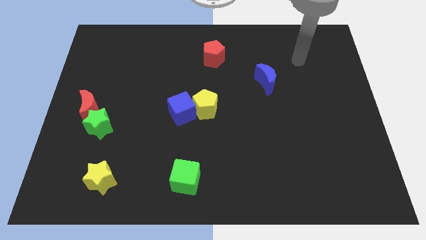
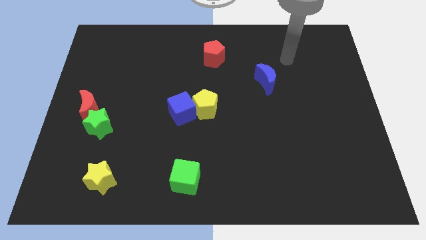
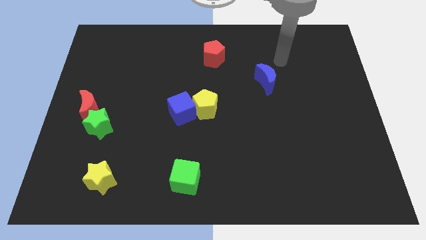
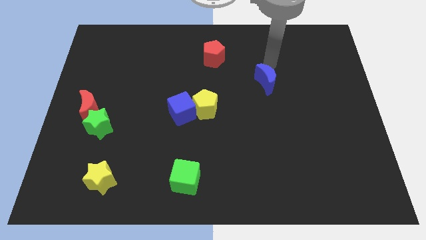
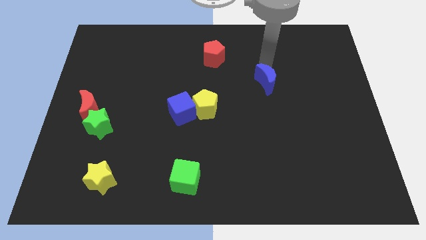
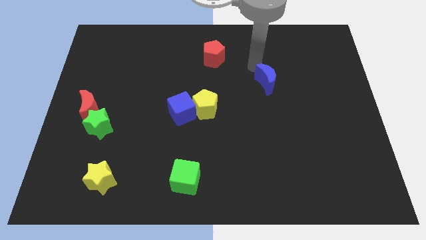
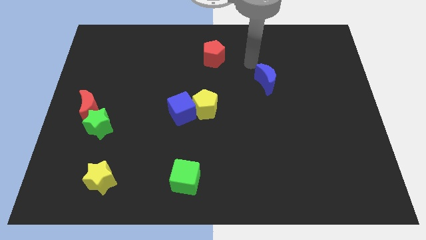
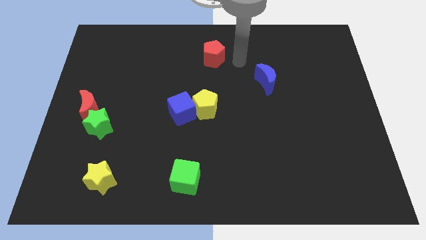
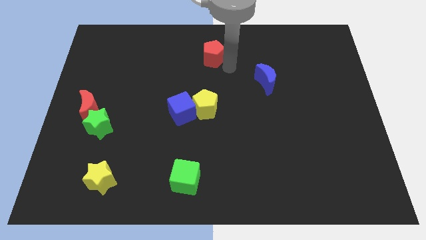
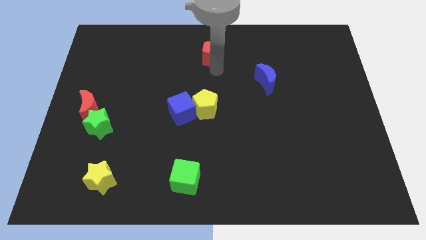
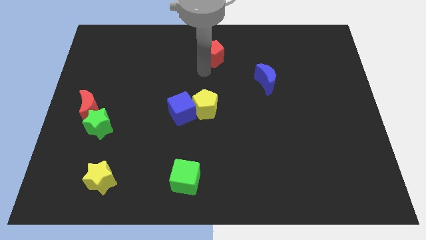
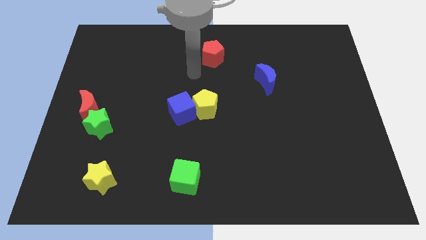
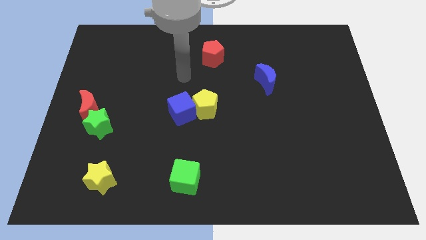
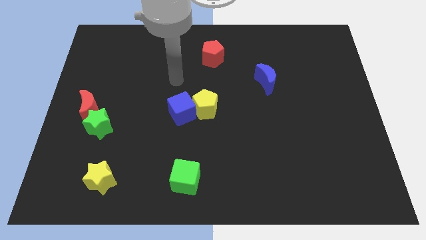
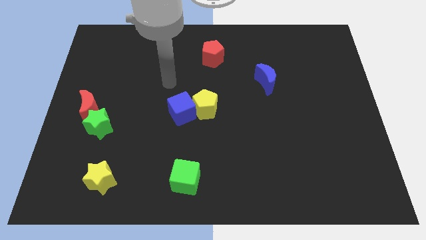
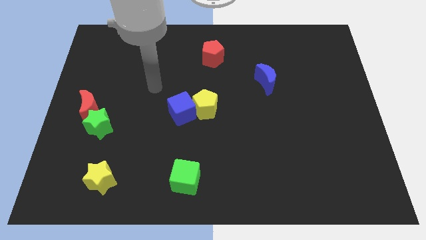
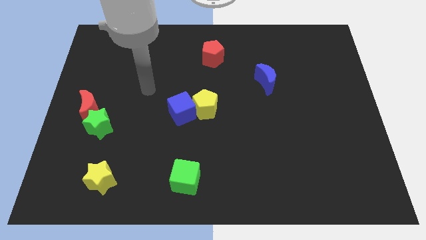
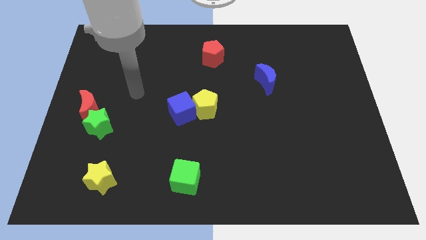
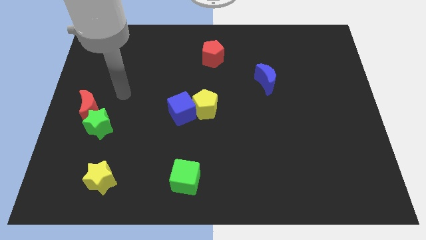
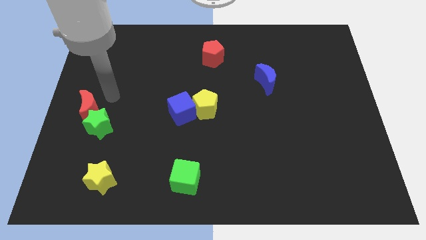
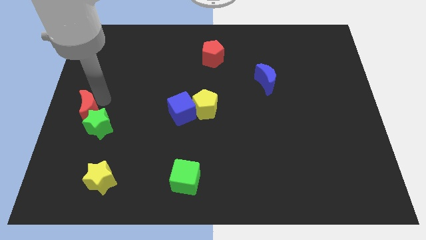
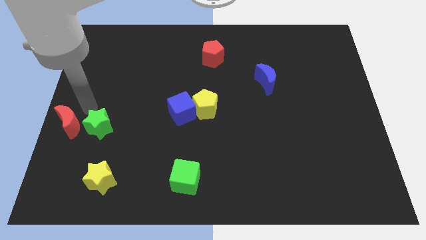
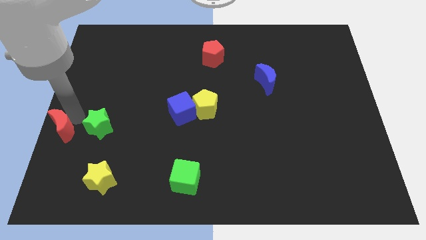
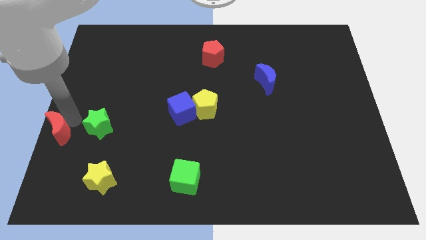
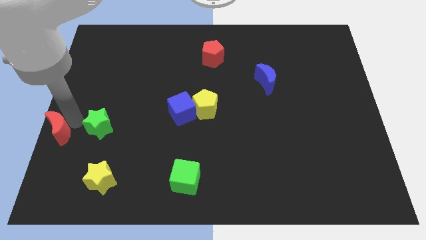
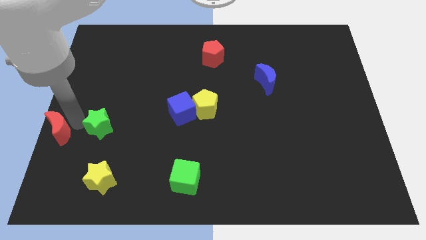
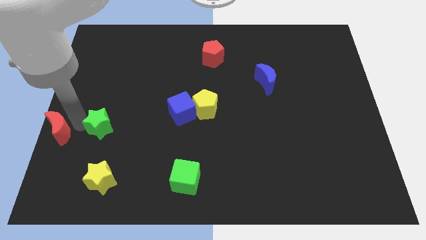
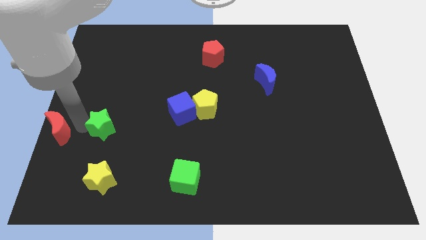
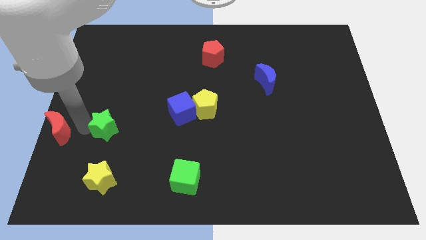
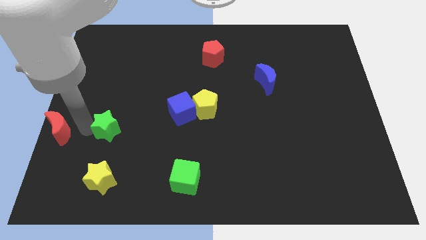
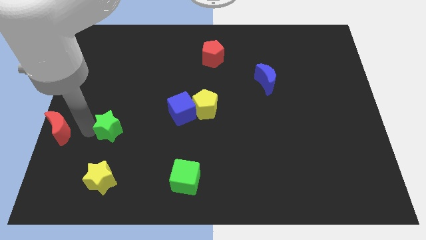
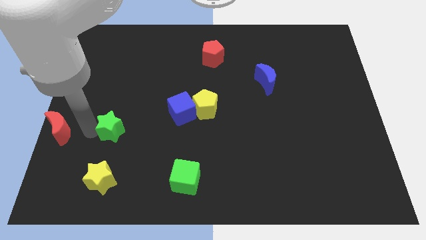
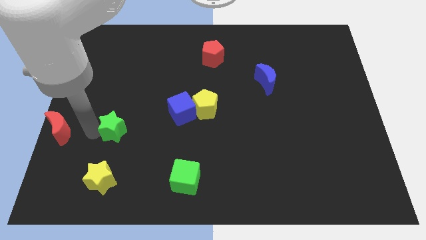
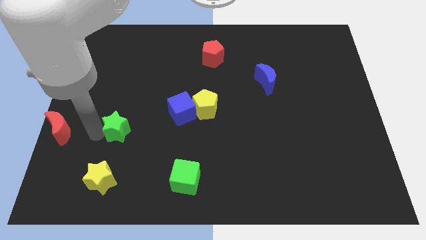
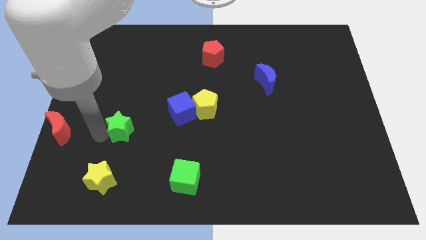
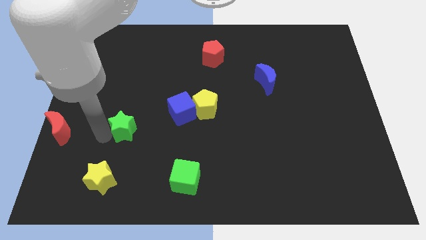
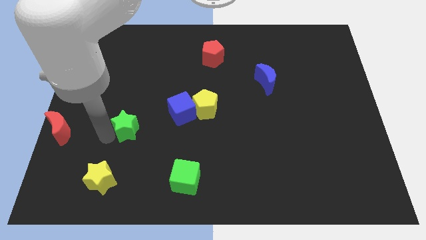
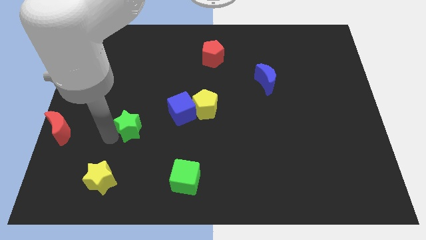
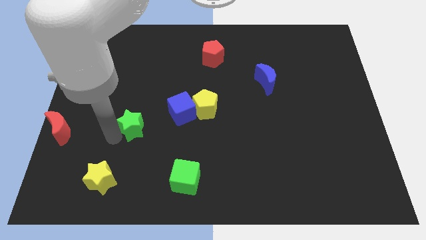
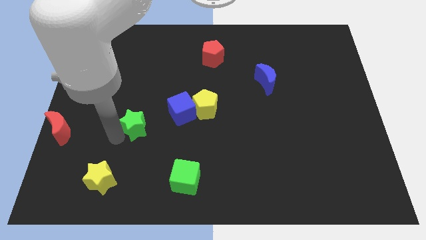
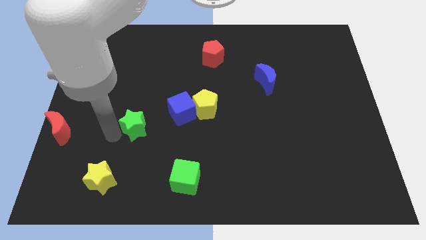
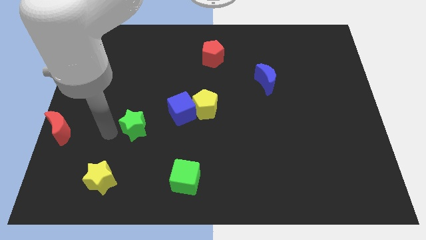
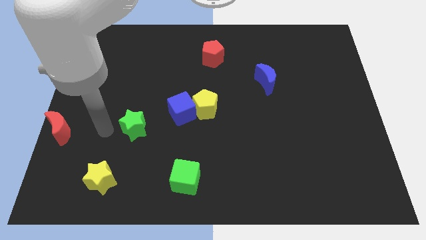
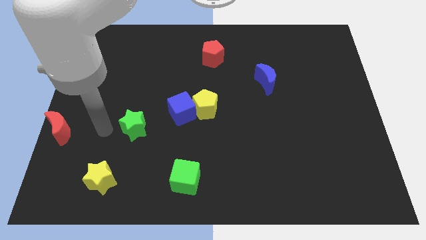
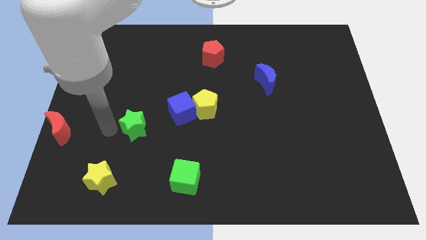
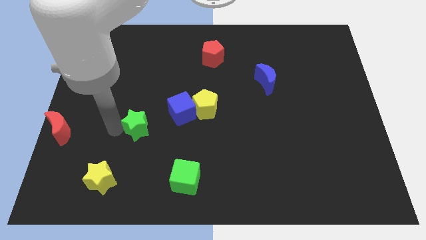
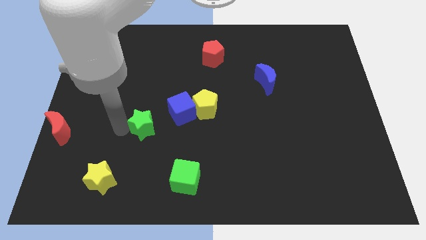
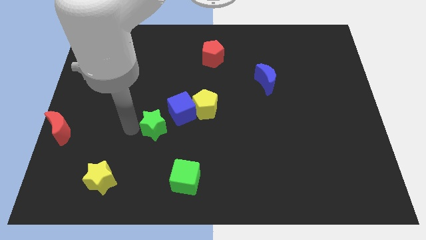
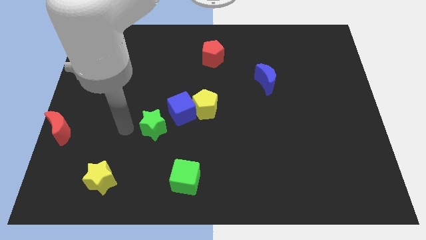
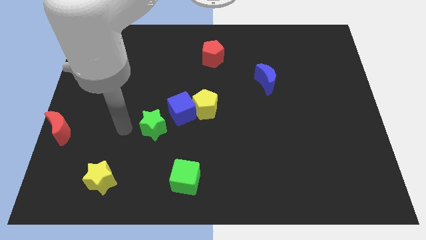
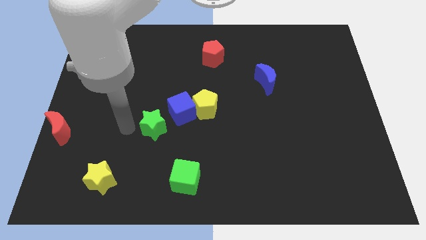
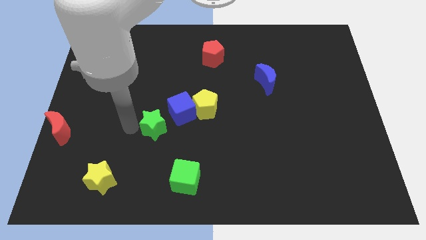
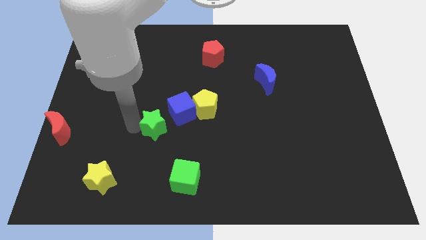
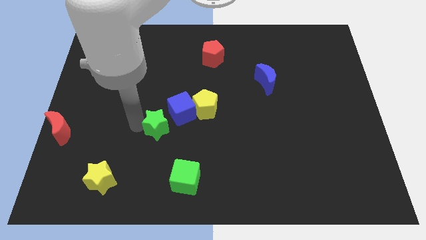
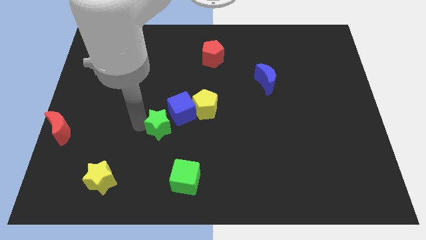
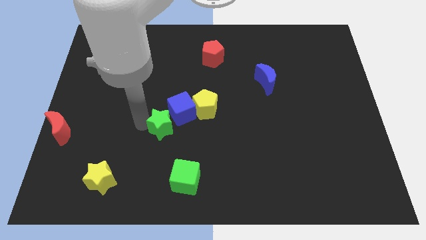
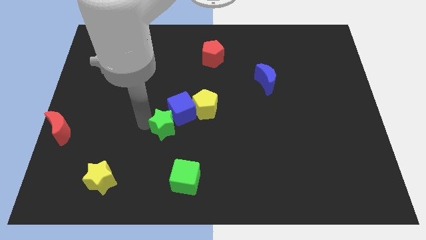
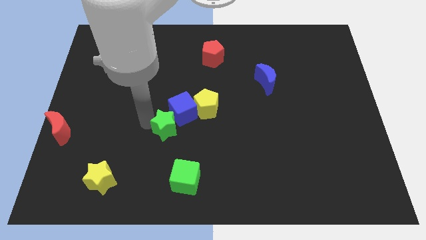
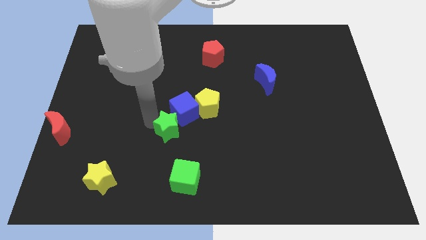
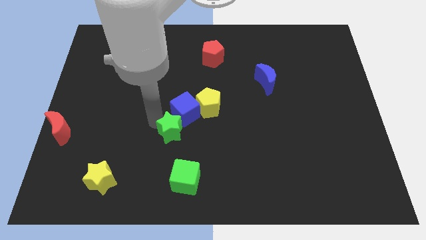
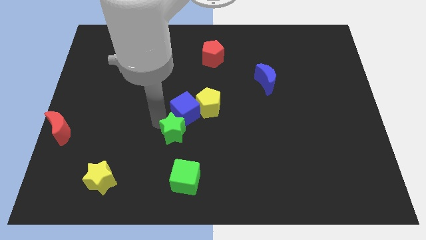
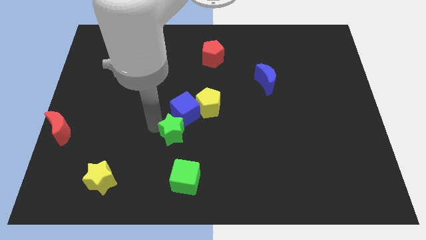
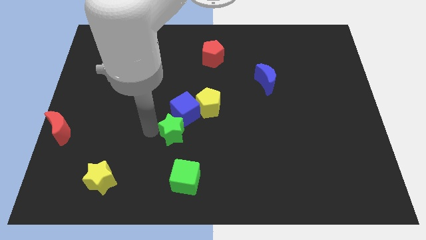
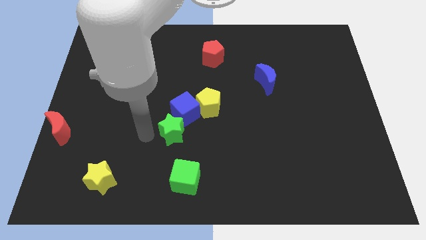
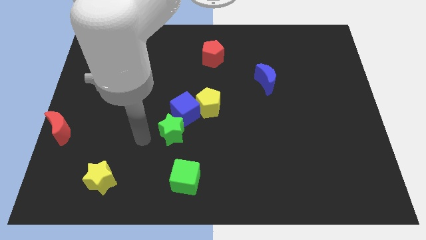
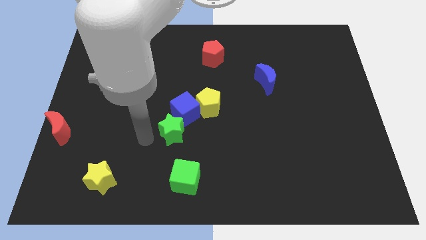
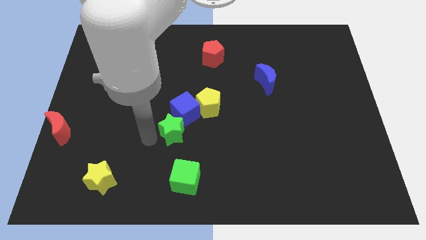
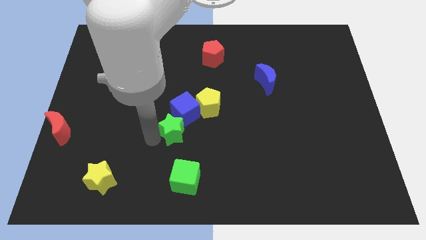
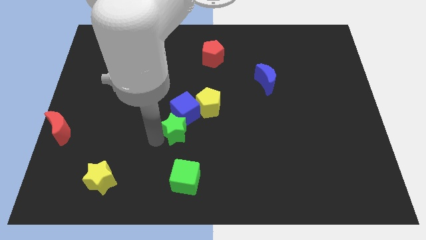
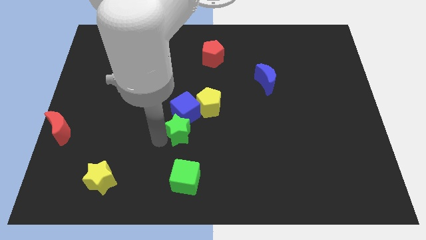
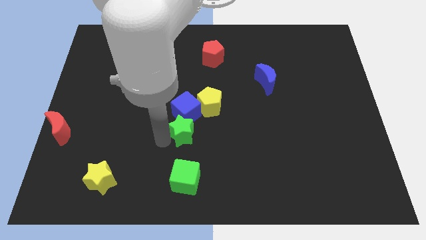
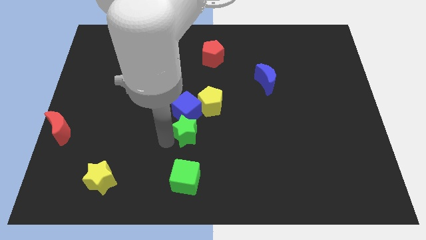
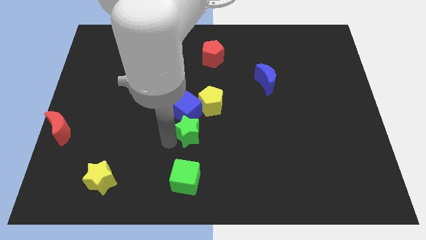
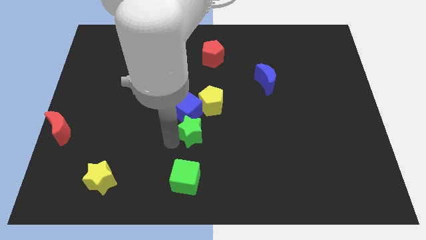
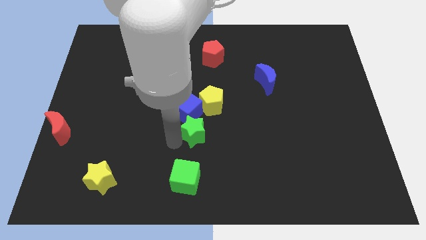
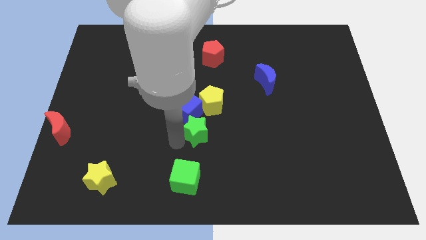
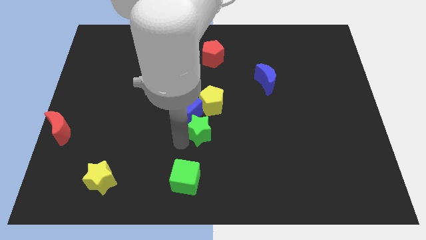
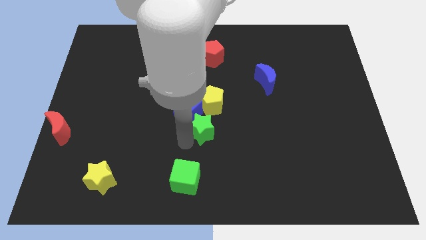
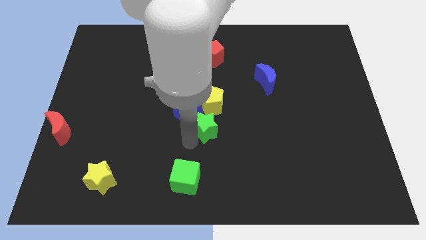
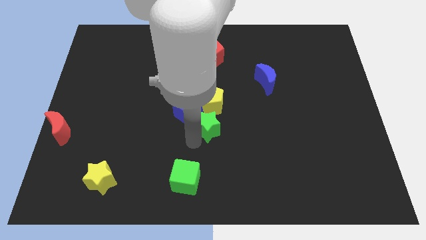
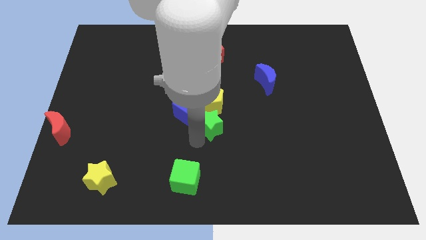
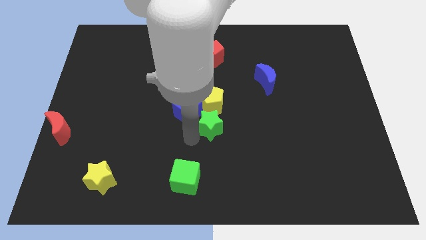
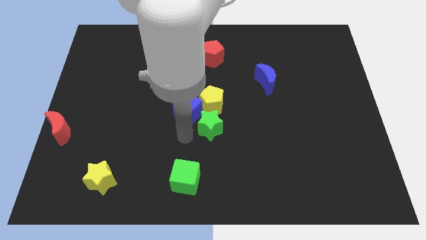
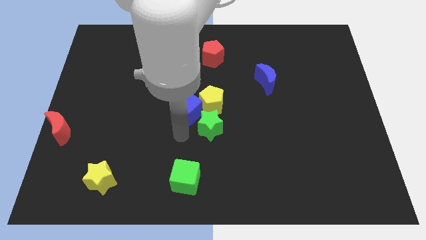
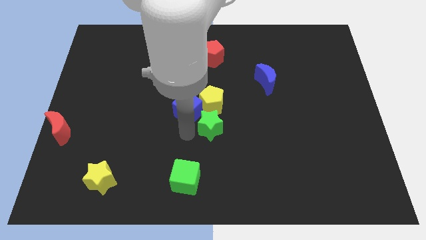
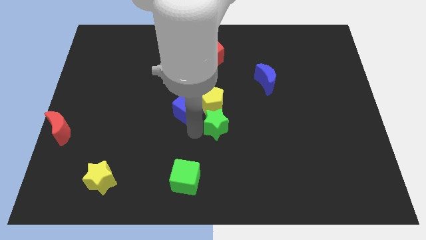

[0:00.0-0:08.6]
slide the green star to the bottom right side of the yellow pentagon
